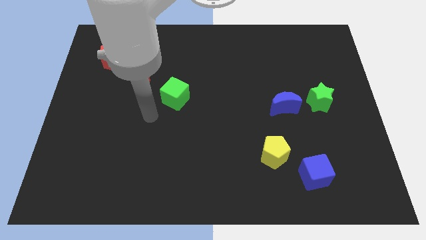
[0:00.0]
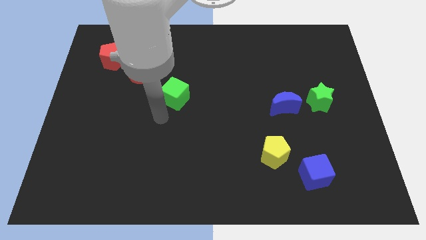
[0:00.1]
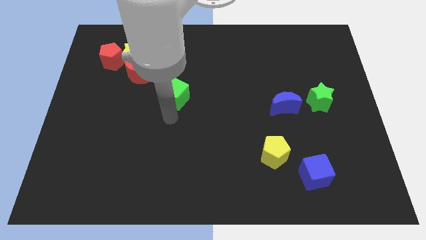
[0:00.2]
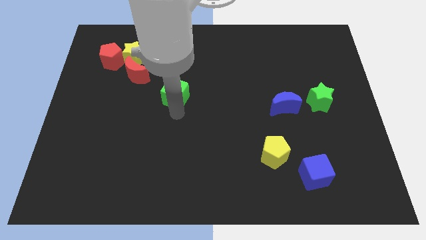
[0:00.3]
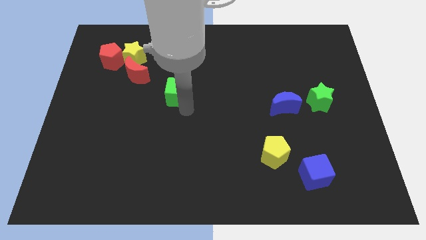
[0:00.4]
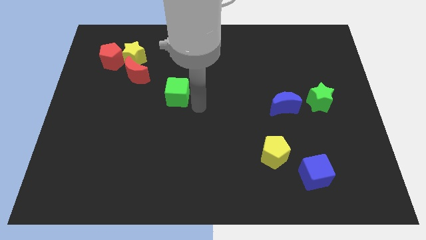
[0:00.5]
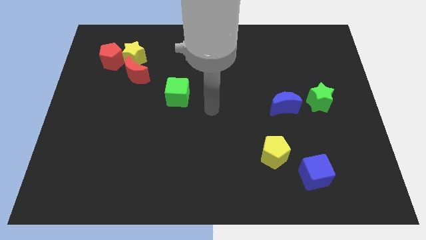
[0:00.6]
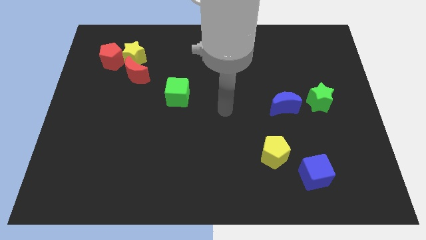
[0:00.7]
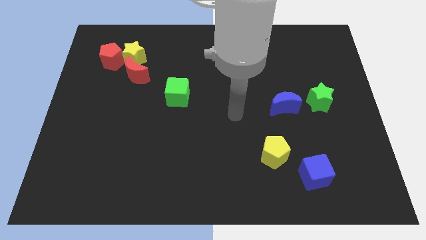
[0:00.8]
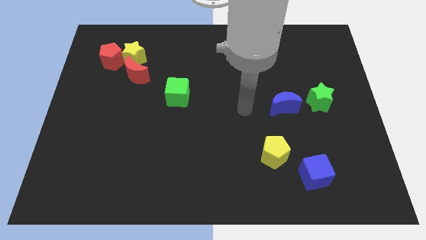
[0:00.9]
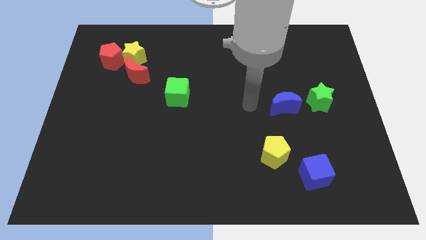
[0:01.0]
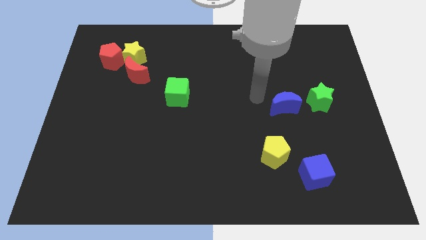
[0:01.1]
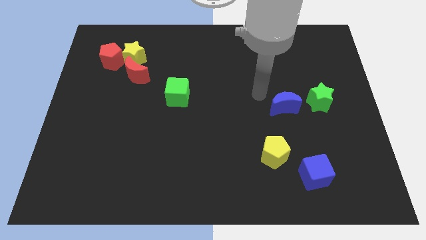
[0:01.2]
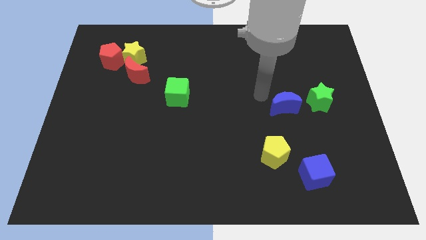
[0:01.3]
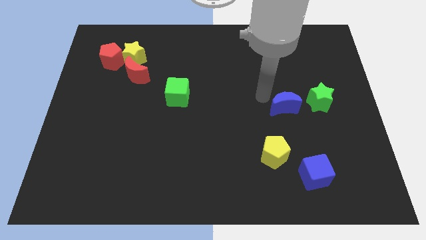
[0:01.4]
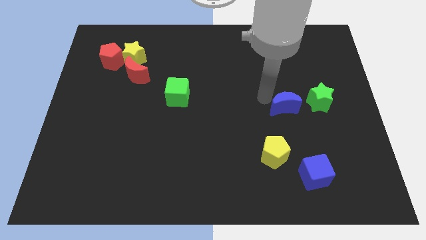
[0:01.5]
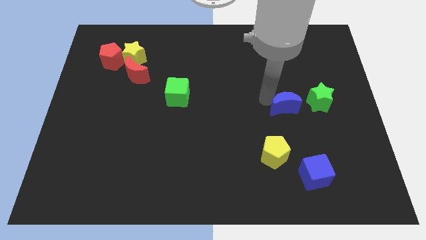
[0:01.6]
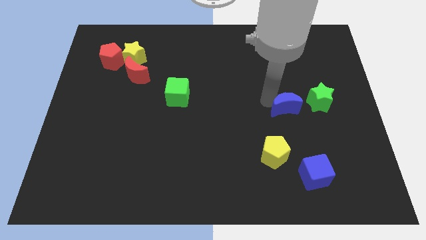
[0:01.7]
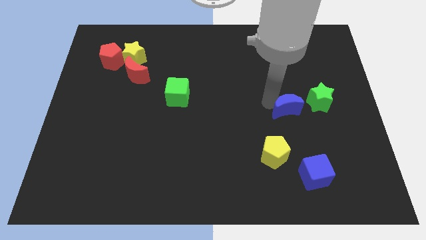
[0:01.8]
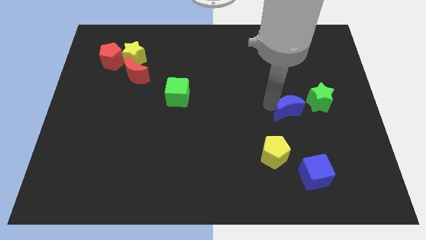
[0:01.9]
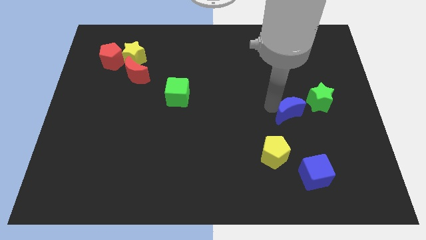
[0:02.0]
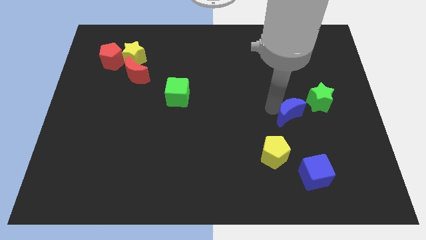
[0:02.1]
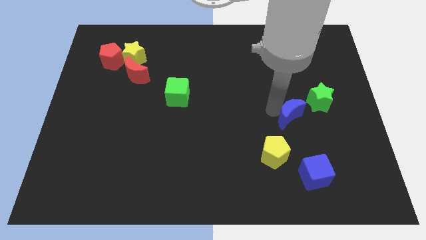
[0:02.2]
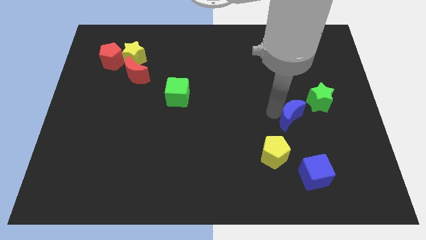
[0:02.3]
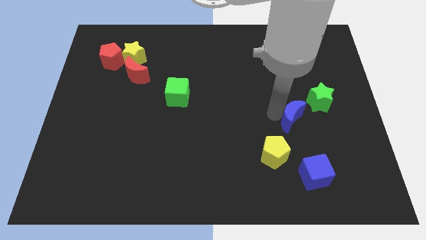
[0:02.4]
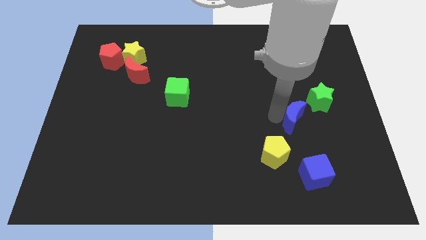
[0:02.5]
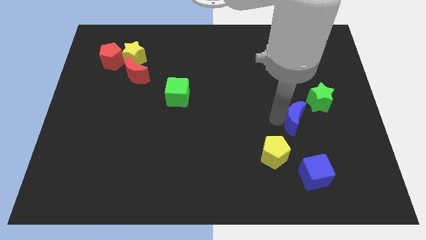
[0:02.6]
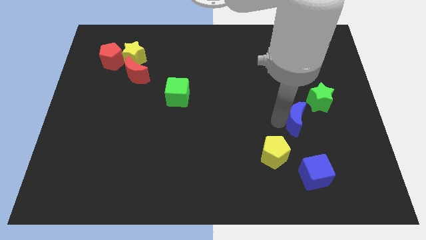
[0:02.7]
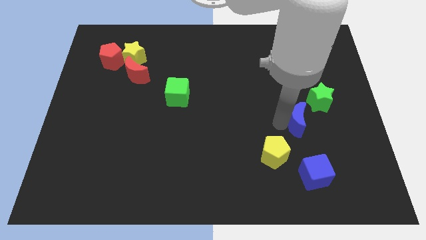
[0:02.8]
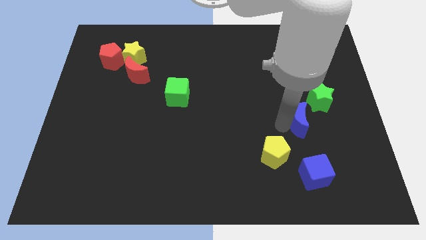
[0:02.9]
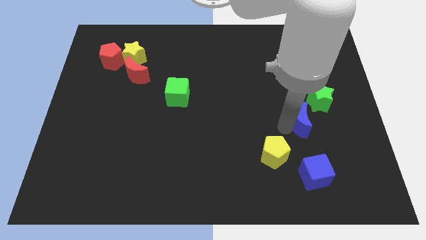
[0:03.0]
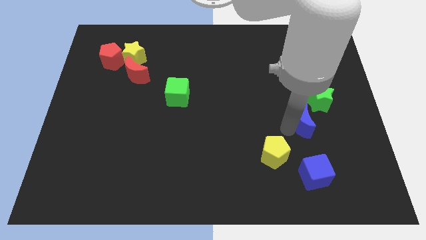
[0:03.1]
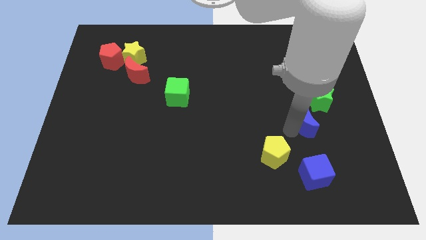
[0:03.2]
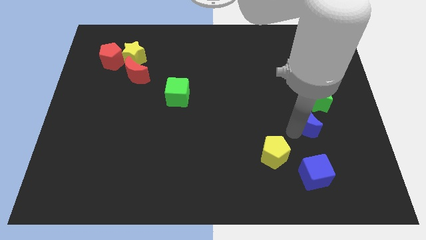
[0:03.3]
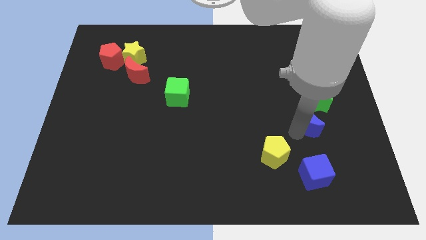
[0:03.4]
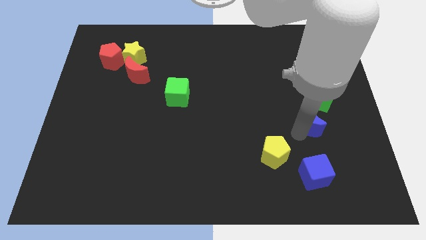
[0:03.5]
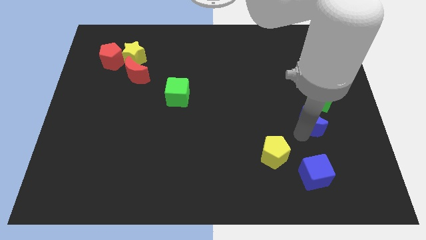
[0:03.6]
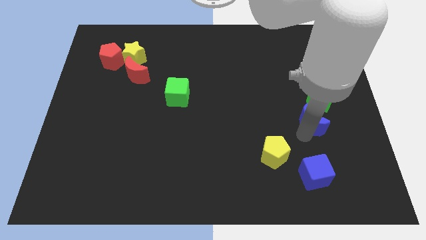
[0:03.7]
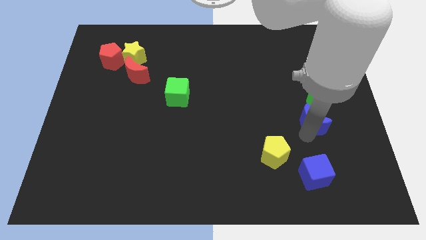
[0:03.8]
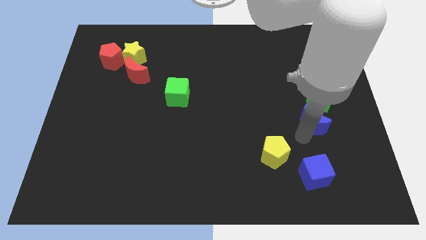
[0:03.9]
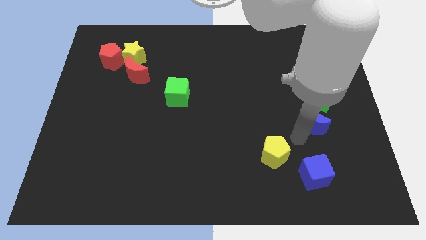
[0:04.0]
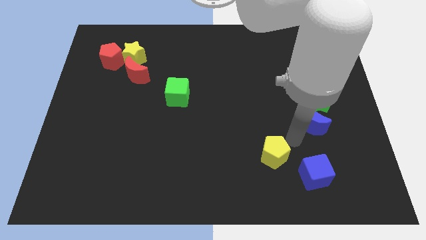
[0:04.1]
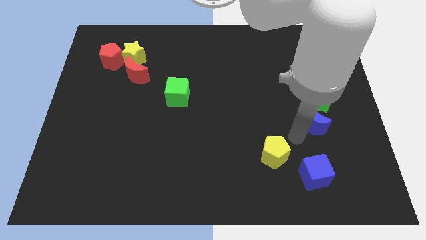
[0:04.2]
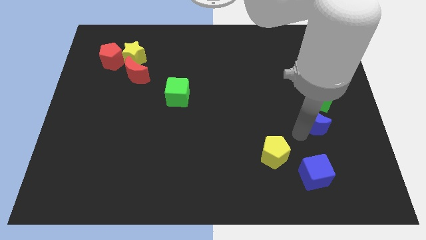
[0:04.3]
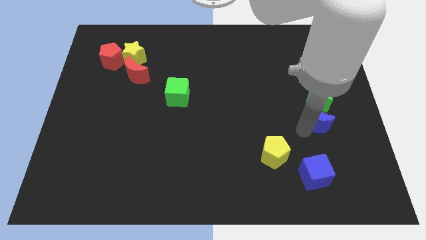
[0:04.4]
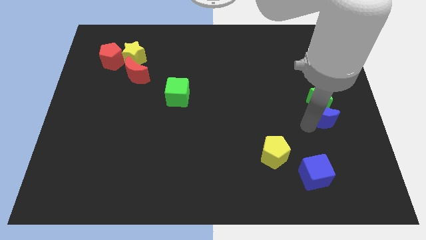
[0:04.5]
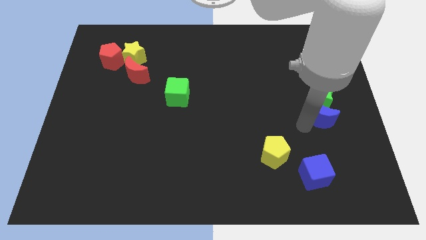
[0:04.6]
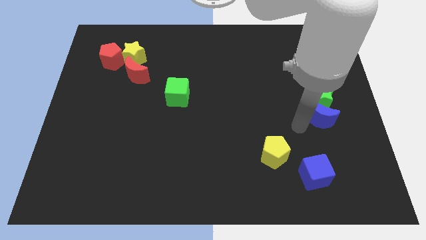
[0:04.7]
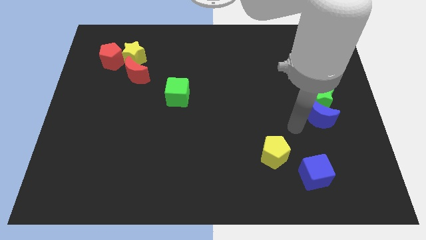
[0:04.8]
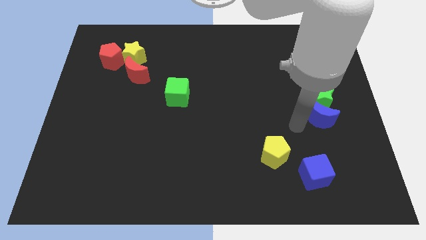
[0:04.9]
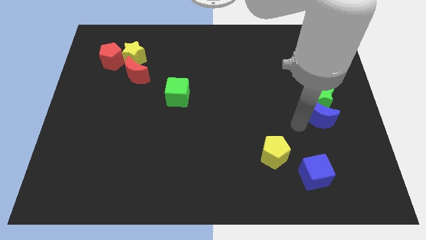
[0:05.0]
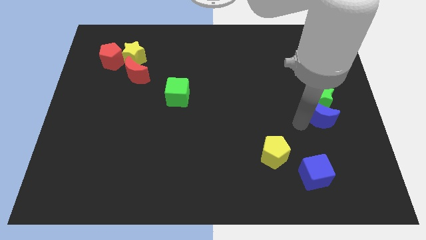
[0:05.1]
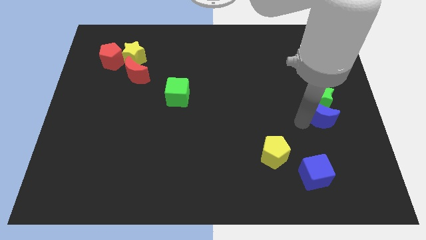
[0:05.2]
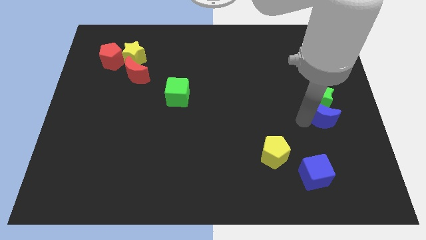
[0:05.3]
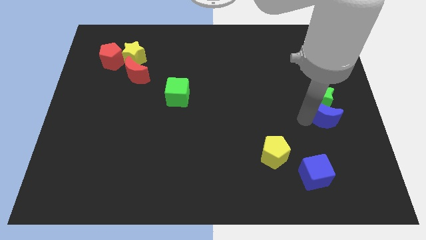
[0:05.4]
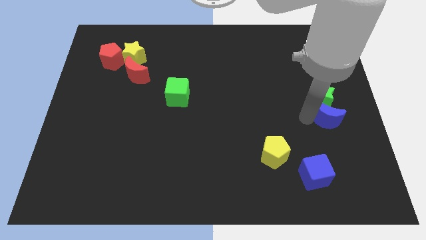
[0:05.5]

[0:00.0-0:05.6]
slide the blue moon to the right side of the board

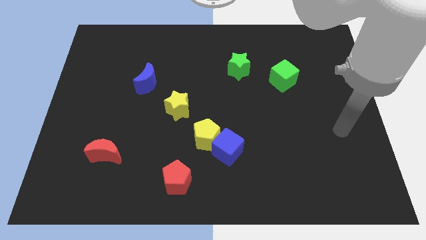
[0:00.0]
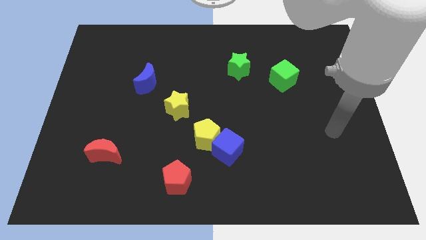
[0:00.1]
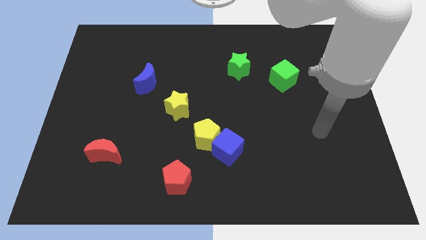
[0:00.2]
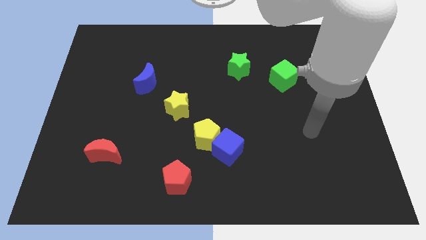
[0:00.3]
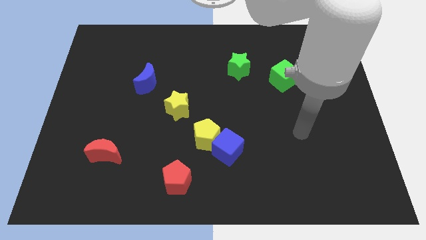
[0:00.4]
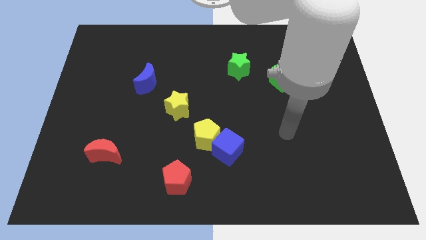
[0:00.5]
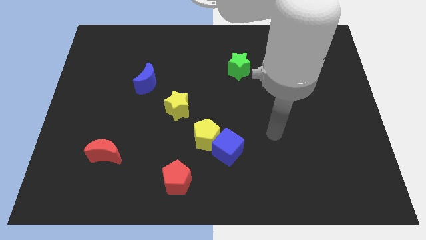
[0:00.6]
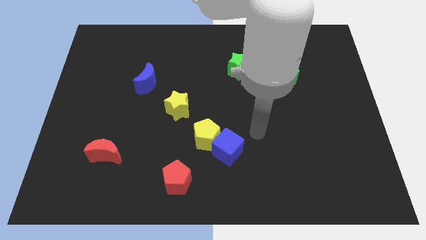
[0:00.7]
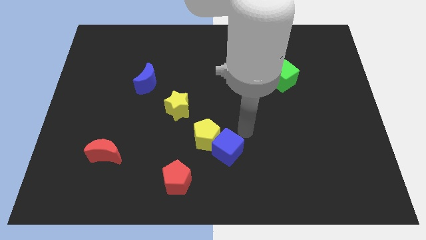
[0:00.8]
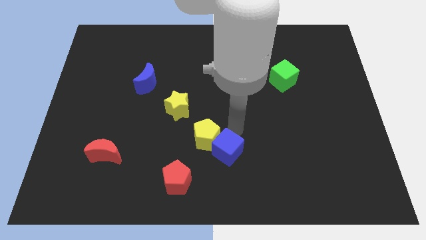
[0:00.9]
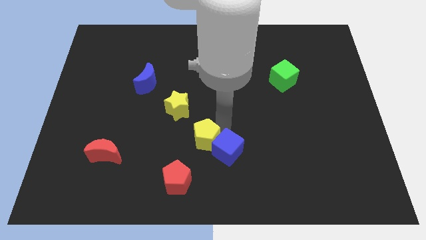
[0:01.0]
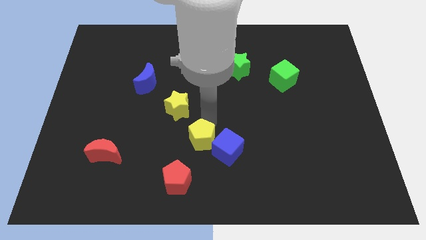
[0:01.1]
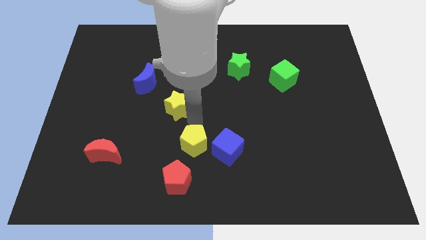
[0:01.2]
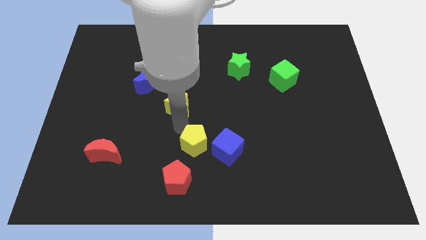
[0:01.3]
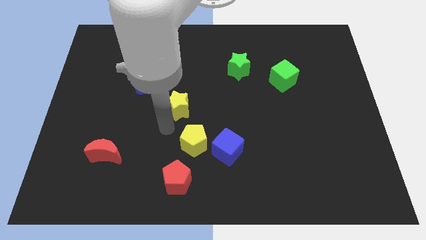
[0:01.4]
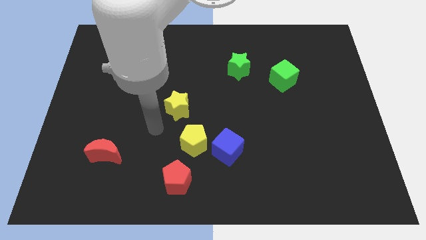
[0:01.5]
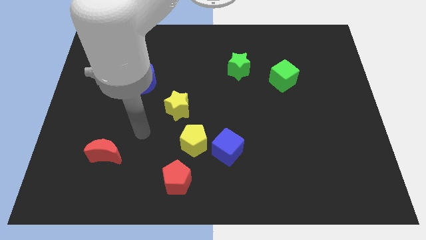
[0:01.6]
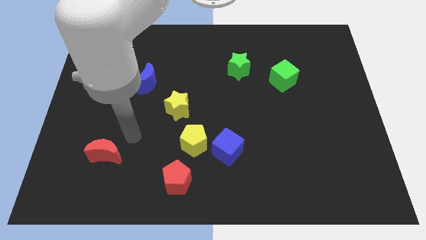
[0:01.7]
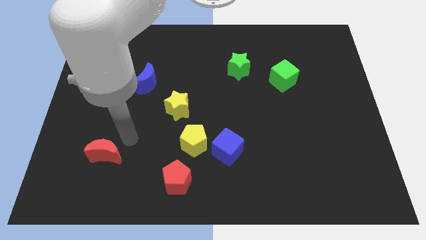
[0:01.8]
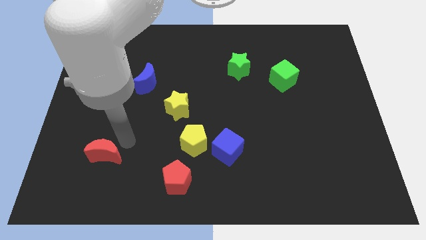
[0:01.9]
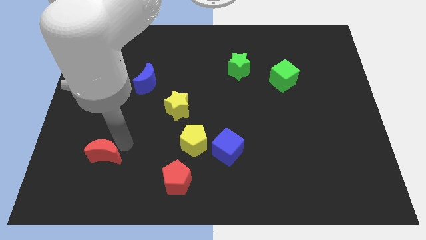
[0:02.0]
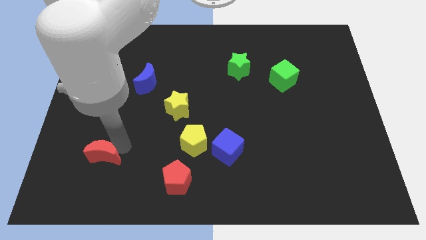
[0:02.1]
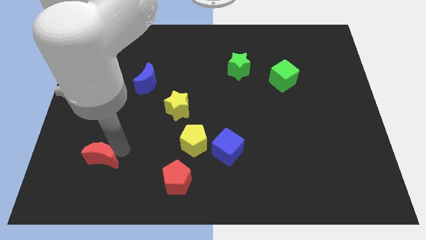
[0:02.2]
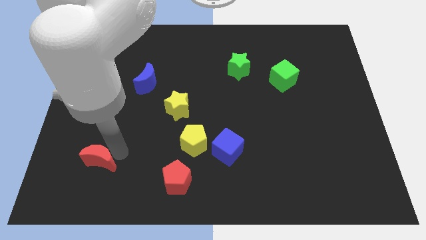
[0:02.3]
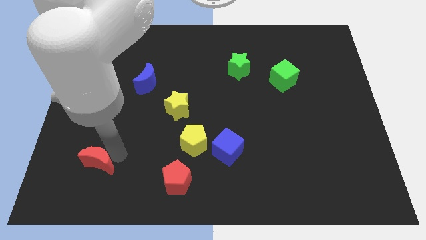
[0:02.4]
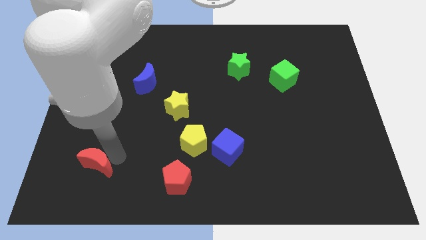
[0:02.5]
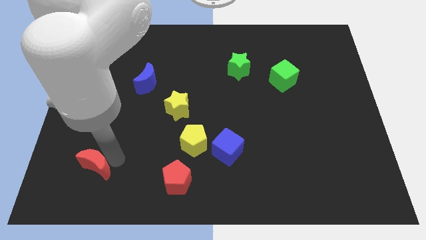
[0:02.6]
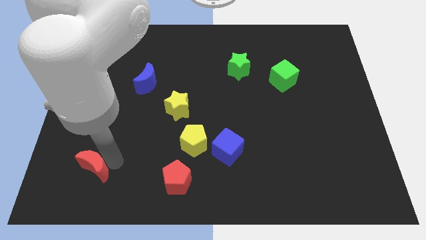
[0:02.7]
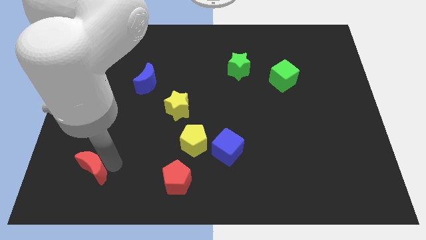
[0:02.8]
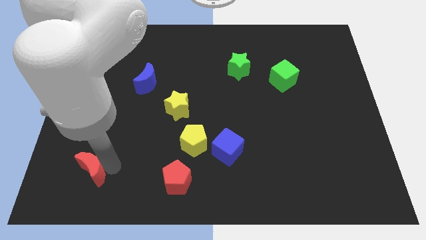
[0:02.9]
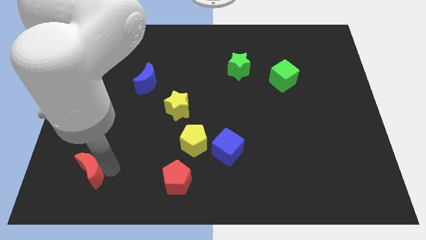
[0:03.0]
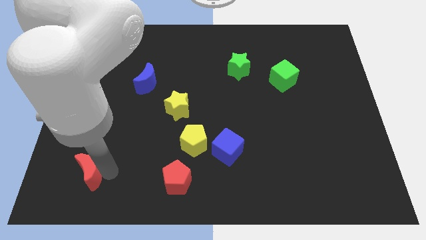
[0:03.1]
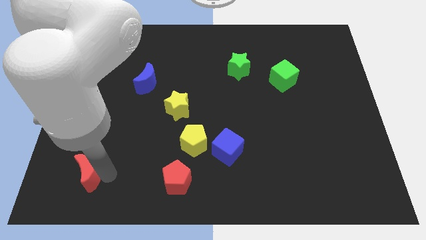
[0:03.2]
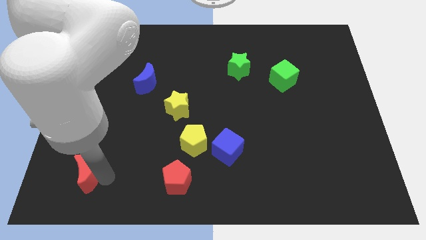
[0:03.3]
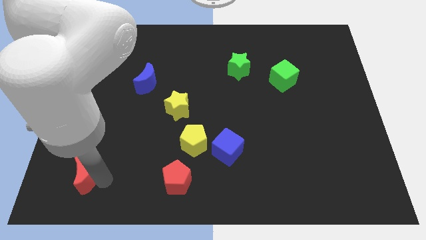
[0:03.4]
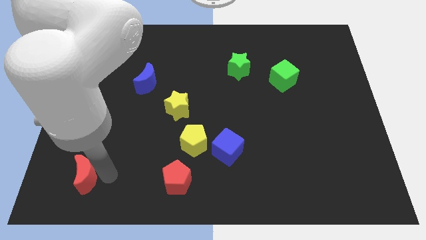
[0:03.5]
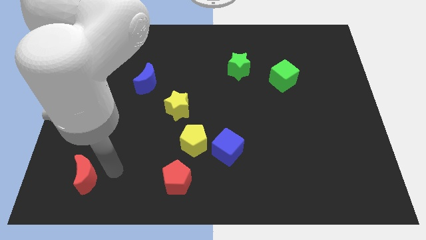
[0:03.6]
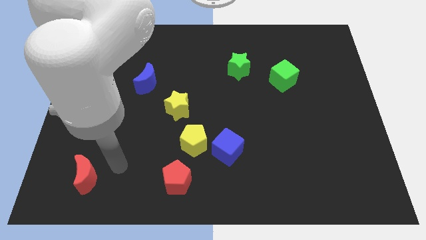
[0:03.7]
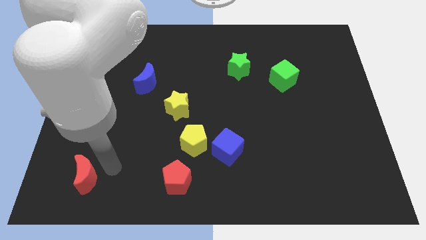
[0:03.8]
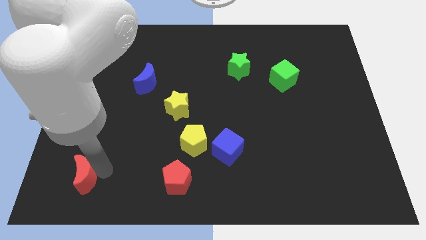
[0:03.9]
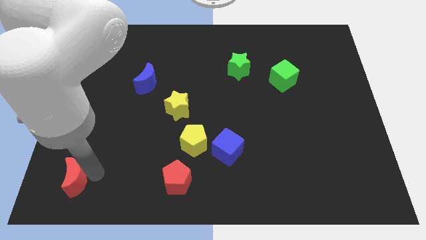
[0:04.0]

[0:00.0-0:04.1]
push the red moon to the bottom left
